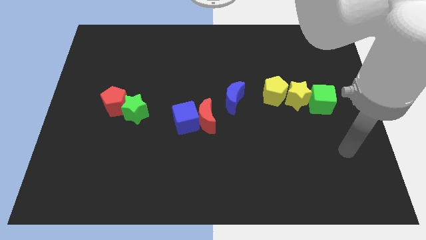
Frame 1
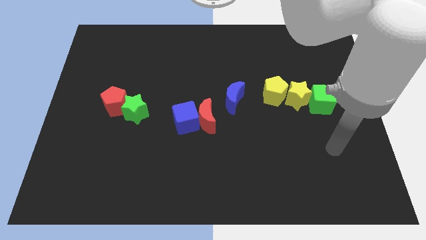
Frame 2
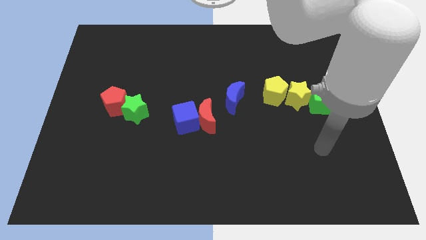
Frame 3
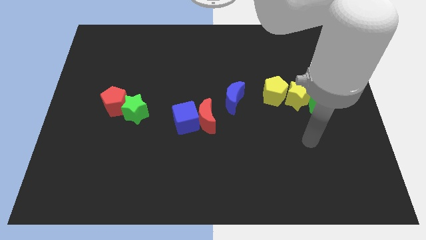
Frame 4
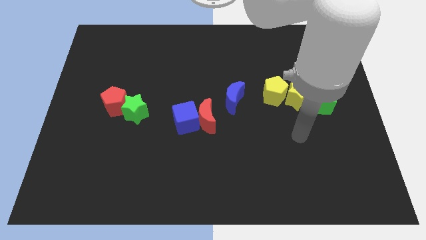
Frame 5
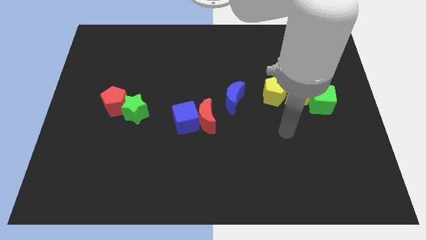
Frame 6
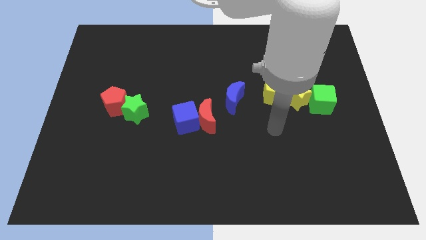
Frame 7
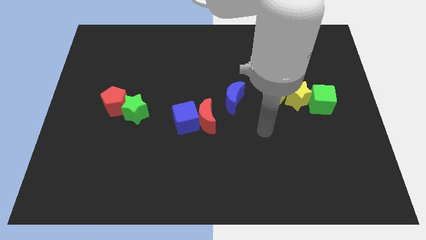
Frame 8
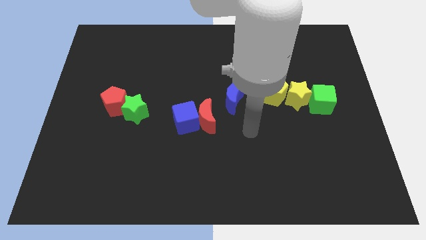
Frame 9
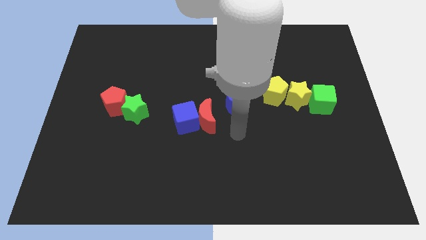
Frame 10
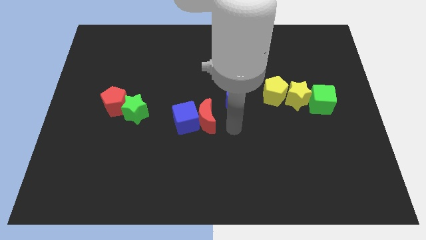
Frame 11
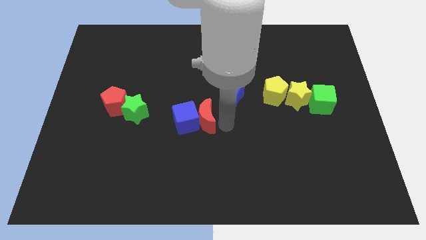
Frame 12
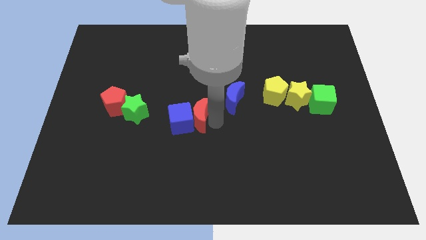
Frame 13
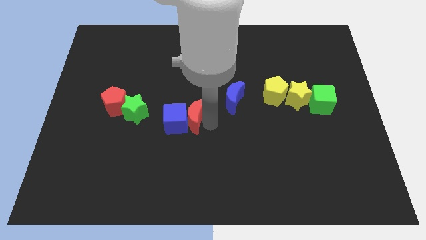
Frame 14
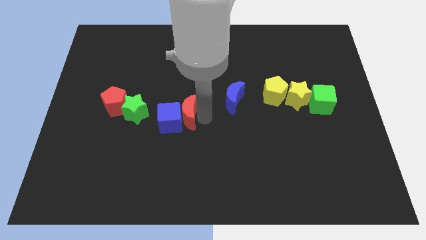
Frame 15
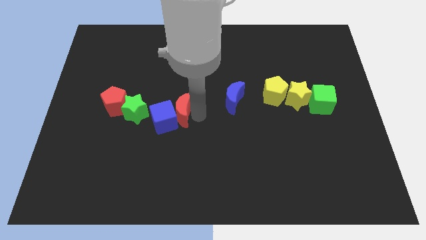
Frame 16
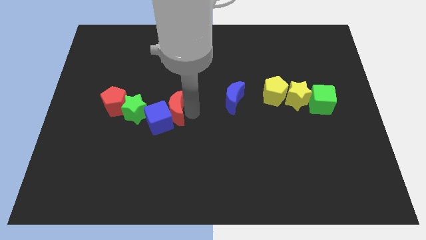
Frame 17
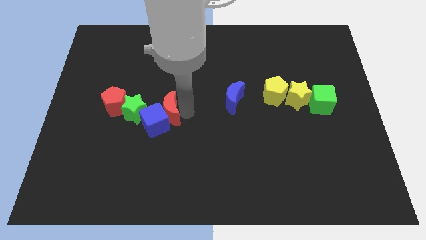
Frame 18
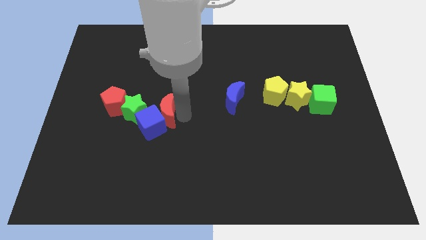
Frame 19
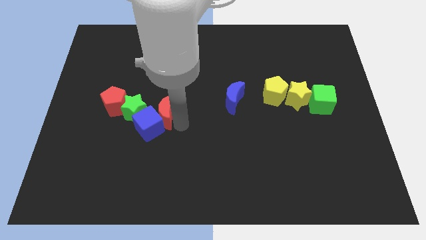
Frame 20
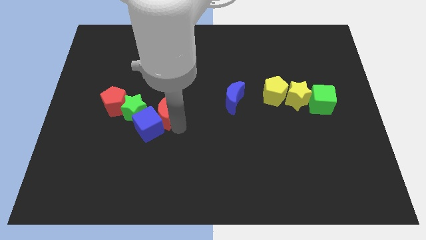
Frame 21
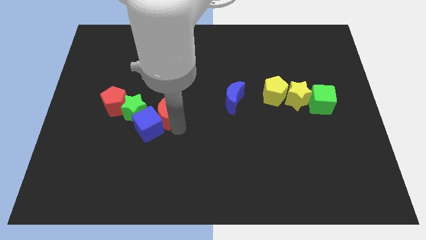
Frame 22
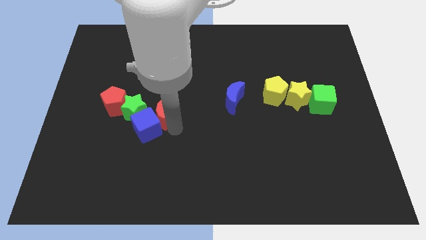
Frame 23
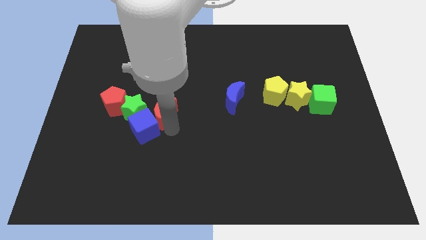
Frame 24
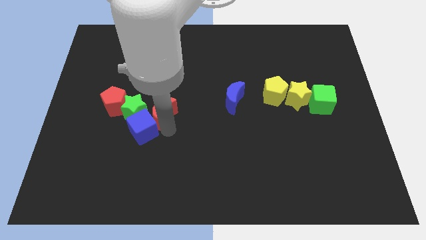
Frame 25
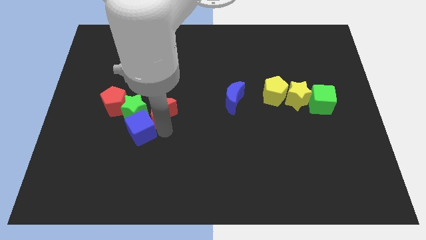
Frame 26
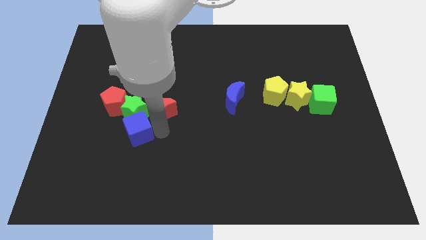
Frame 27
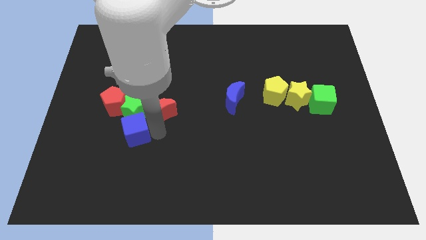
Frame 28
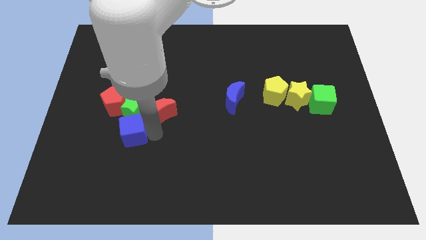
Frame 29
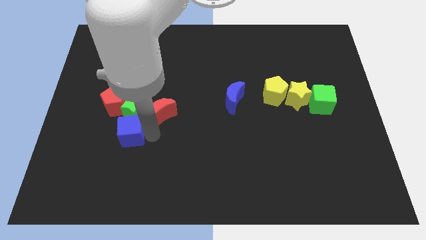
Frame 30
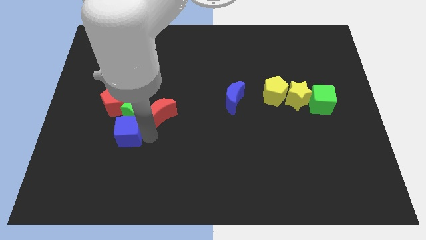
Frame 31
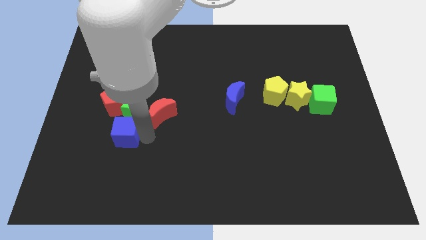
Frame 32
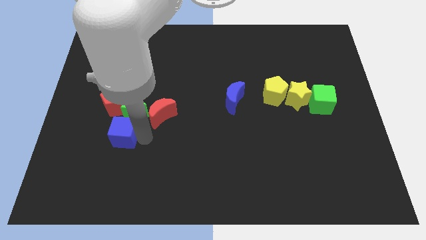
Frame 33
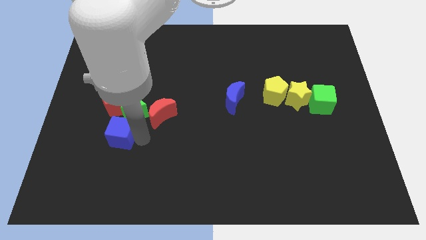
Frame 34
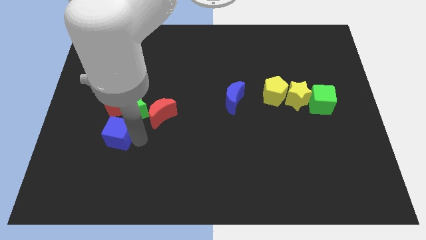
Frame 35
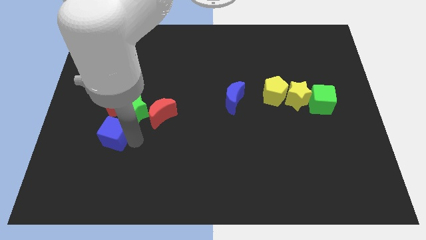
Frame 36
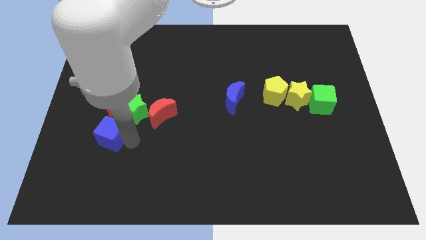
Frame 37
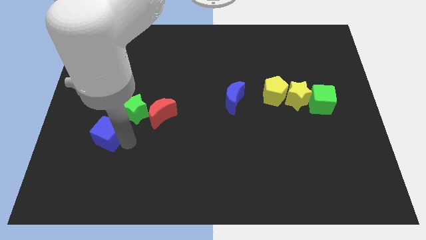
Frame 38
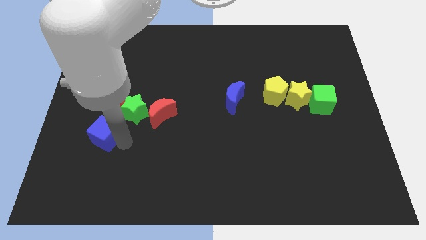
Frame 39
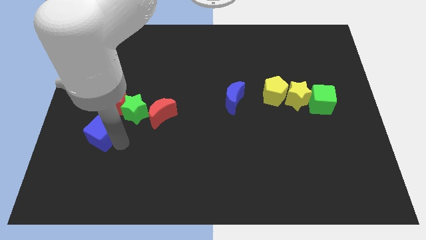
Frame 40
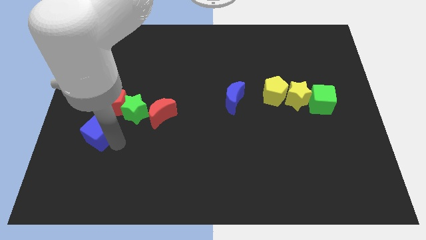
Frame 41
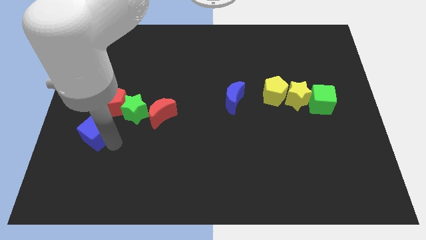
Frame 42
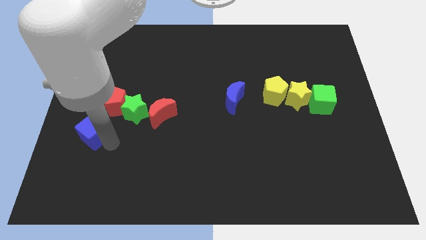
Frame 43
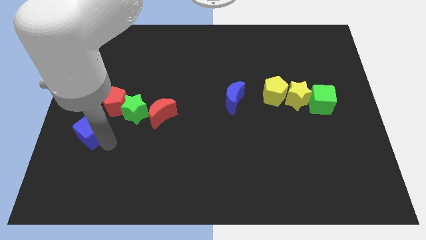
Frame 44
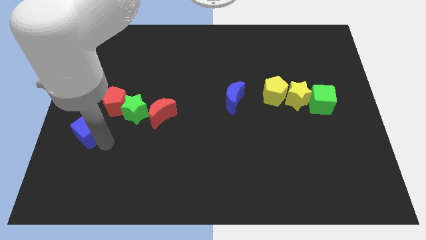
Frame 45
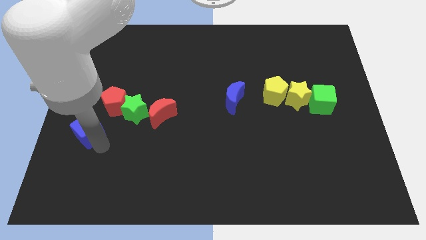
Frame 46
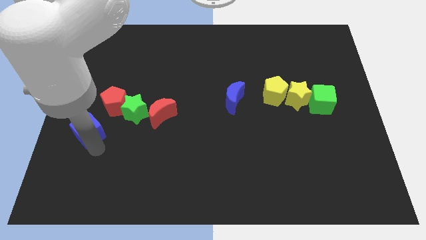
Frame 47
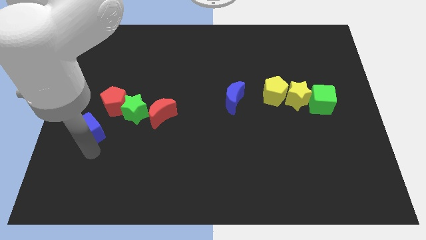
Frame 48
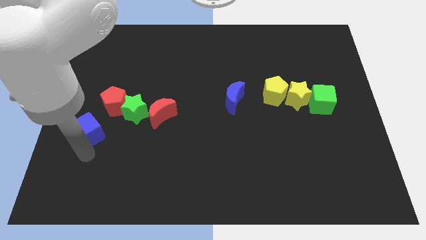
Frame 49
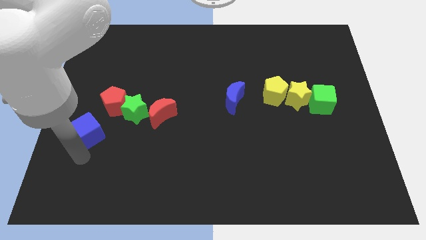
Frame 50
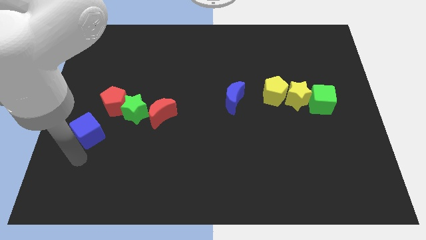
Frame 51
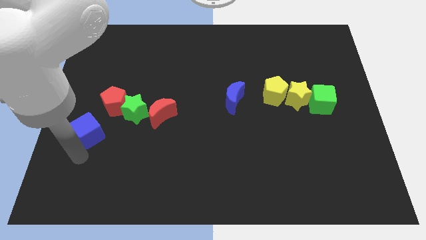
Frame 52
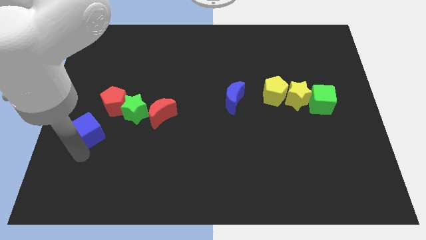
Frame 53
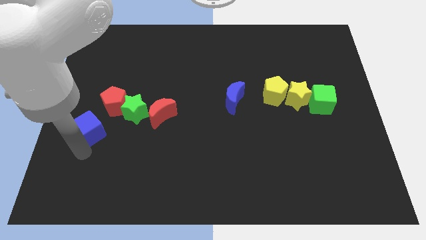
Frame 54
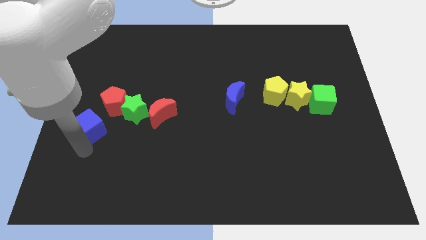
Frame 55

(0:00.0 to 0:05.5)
move the blue cube to the center left

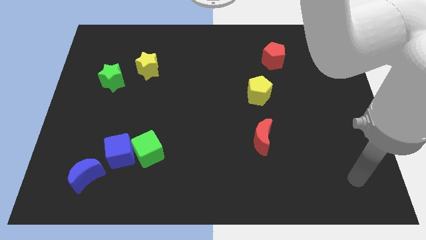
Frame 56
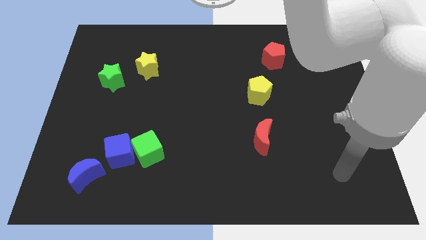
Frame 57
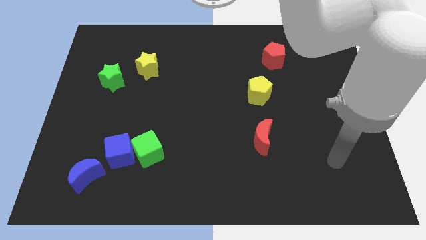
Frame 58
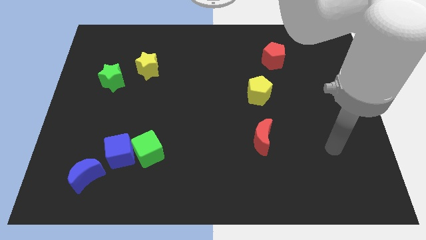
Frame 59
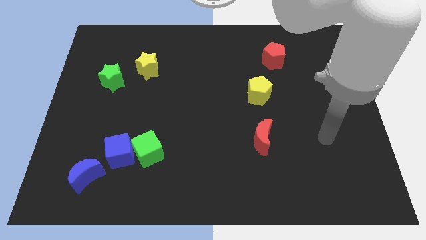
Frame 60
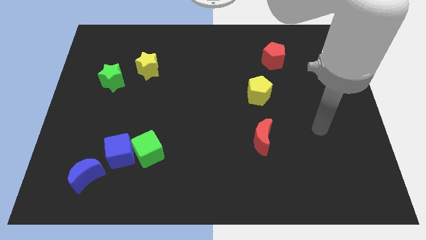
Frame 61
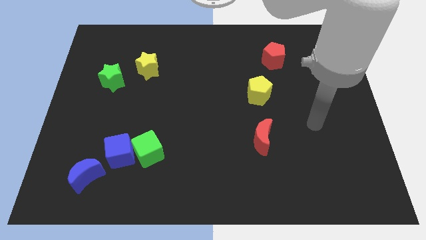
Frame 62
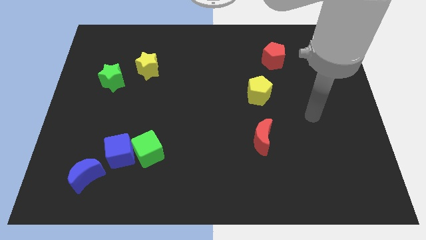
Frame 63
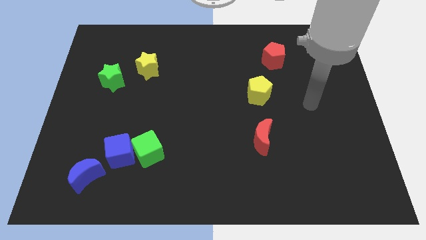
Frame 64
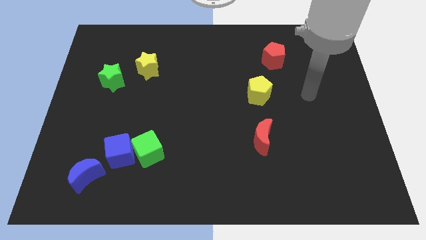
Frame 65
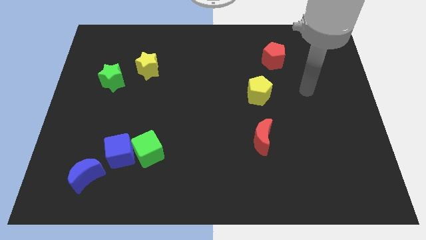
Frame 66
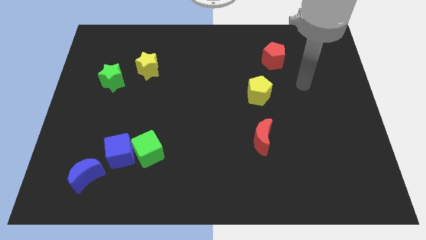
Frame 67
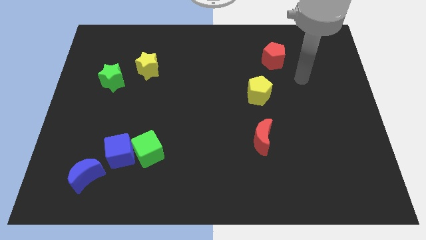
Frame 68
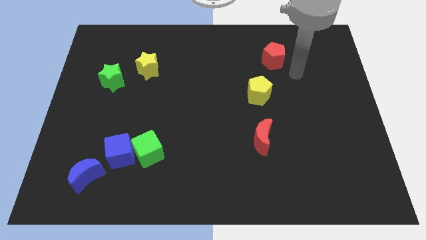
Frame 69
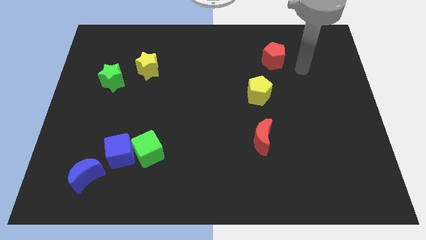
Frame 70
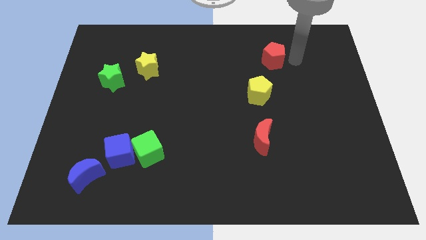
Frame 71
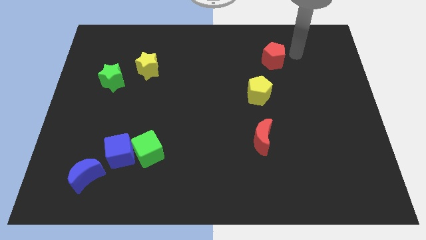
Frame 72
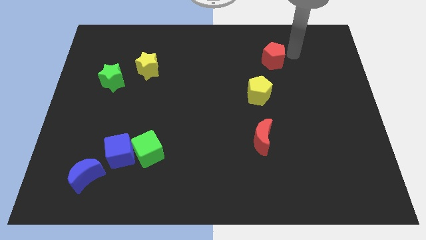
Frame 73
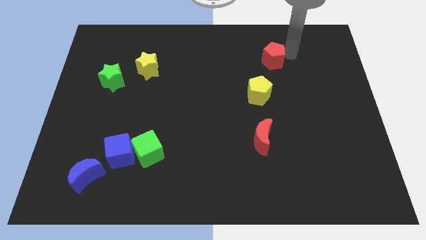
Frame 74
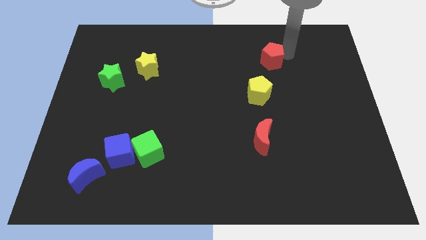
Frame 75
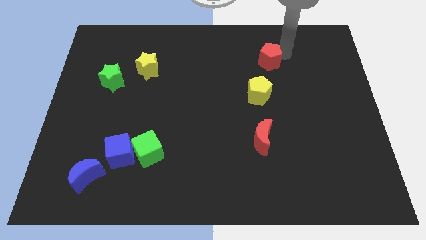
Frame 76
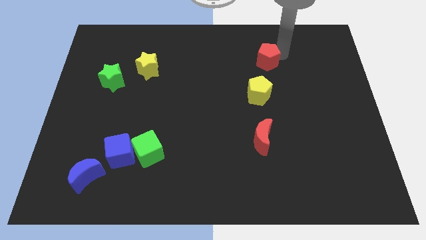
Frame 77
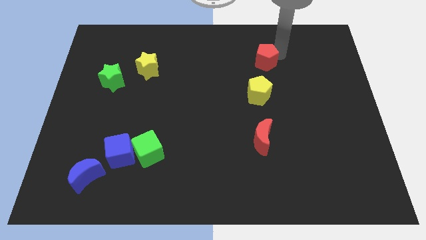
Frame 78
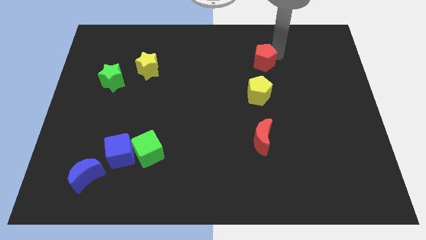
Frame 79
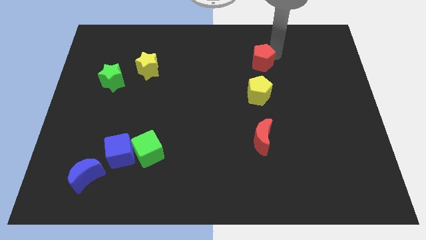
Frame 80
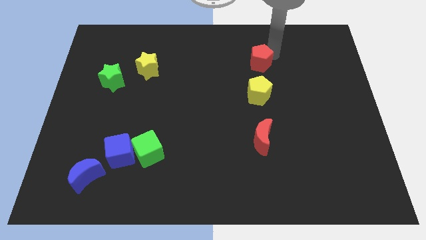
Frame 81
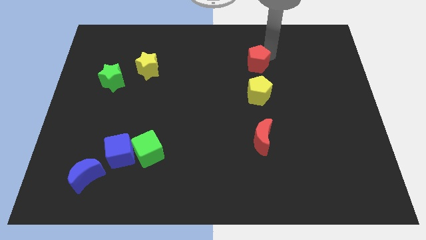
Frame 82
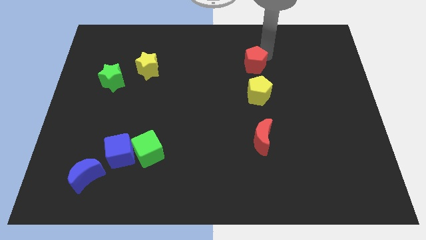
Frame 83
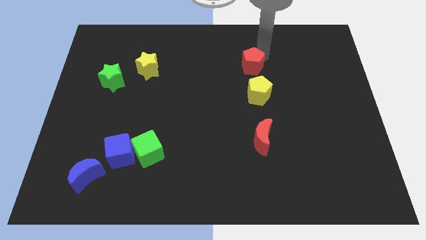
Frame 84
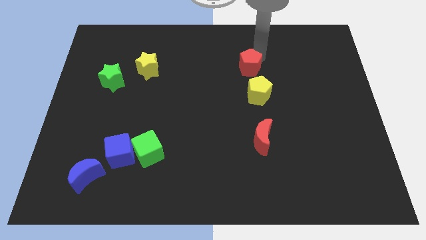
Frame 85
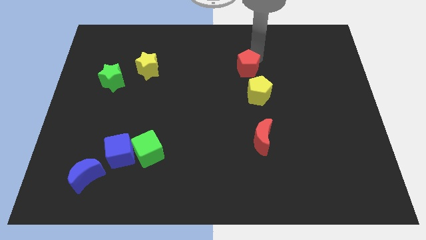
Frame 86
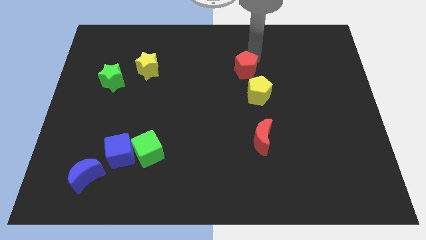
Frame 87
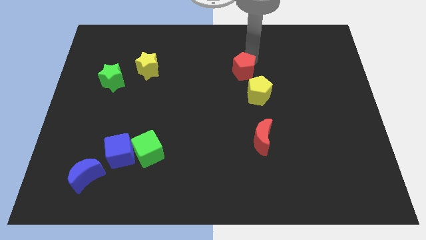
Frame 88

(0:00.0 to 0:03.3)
slide the red pentagon to the center of the board
